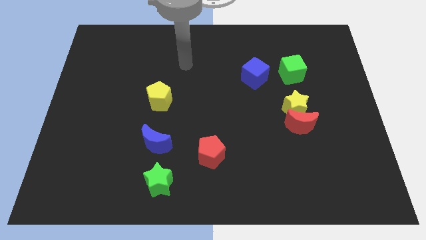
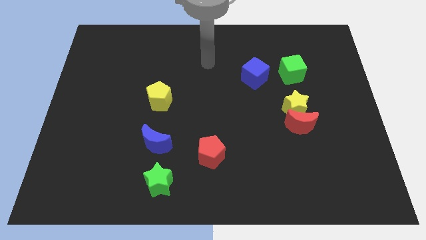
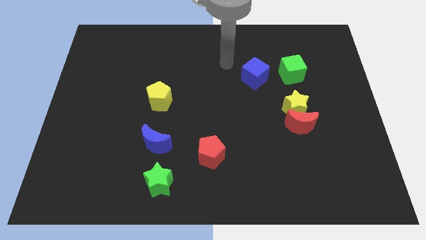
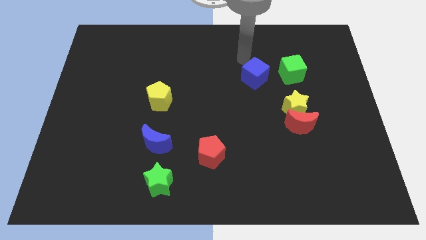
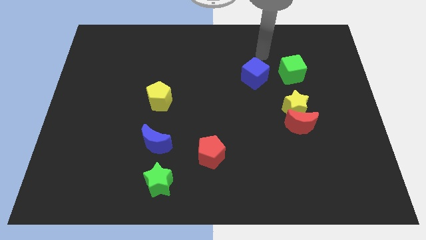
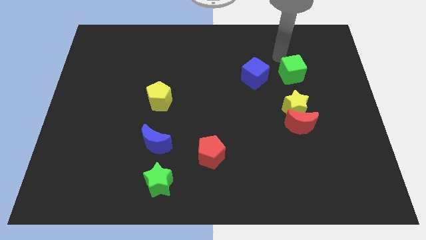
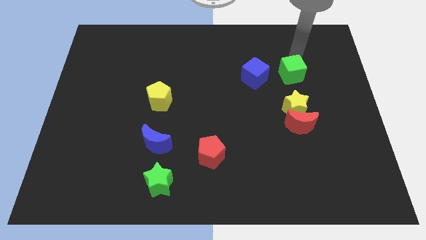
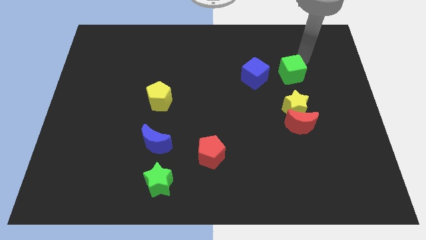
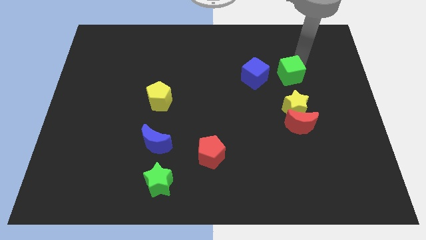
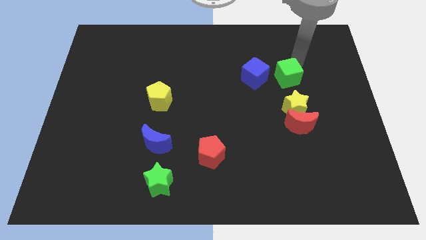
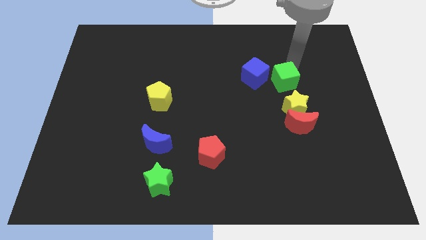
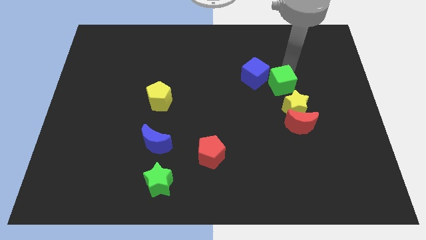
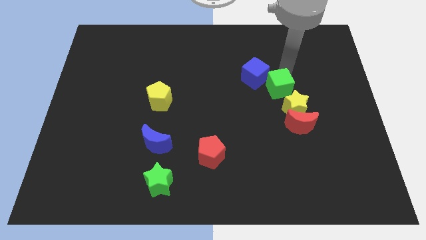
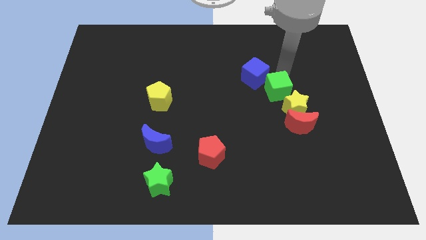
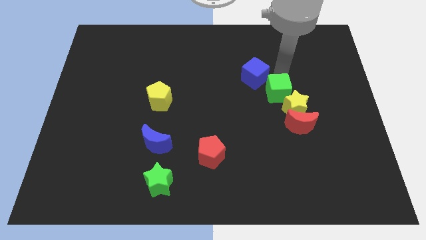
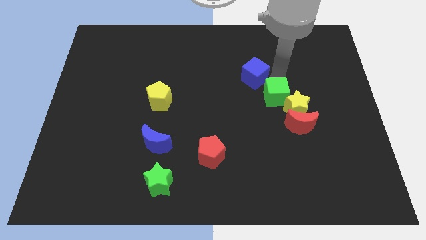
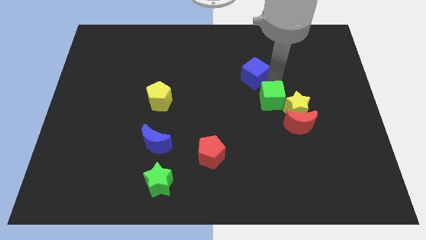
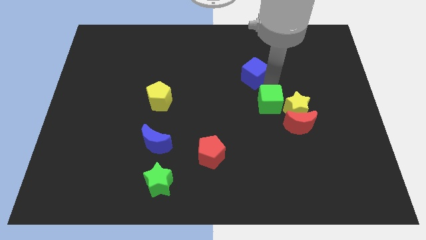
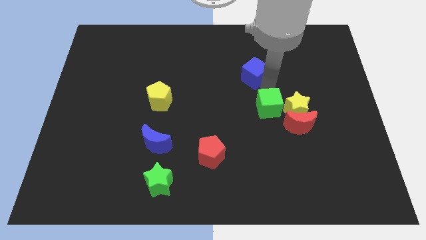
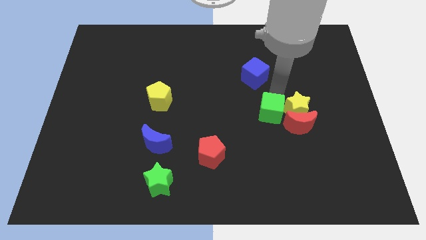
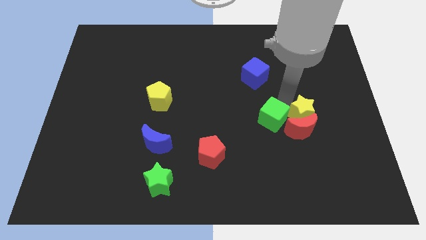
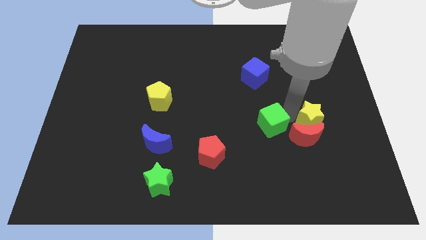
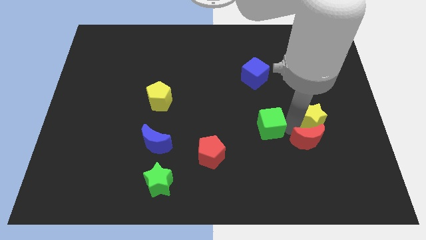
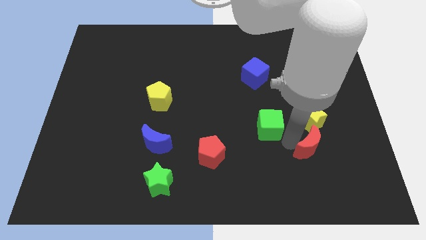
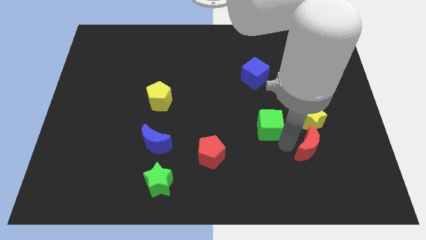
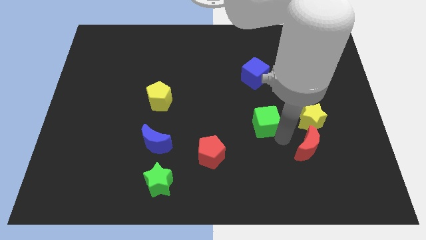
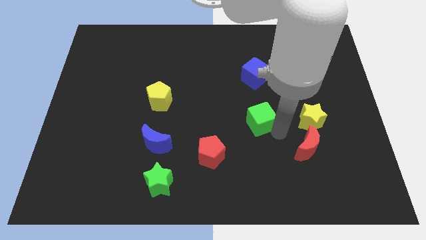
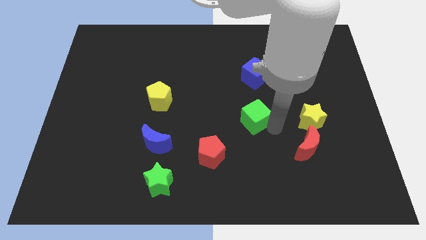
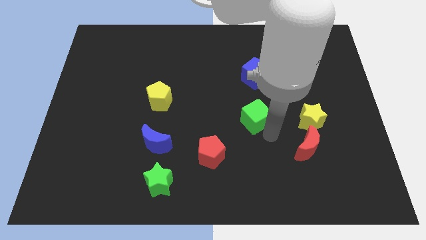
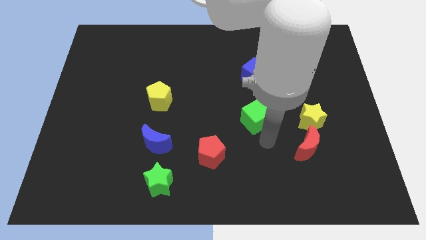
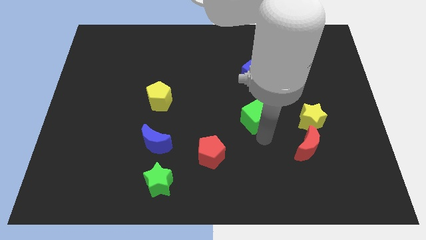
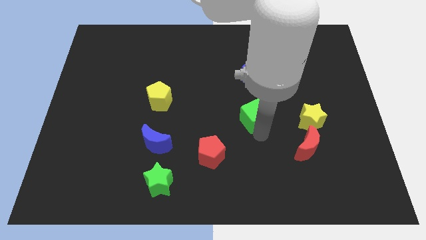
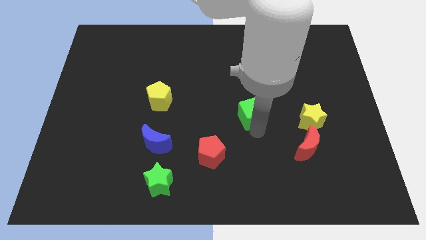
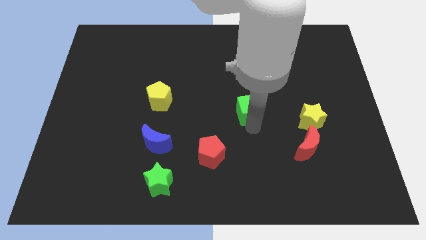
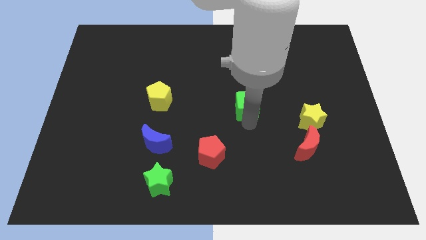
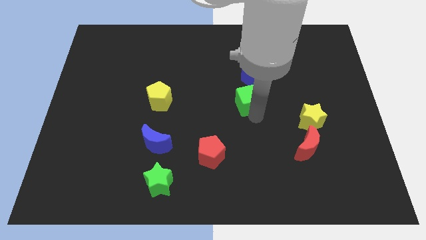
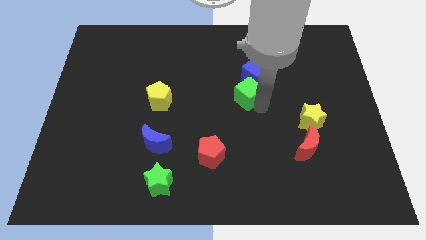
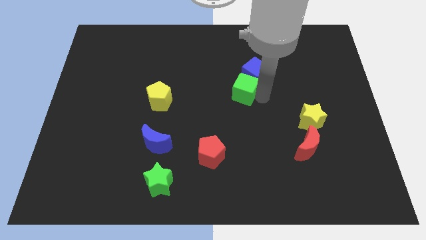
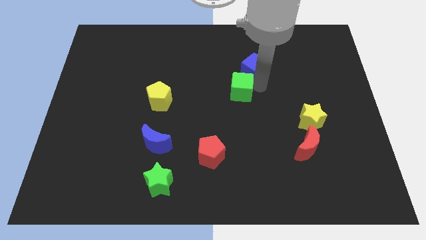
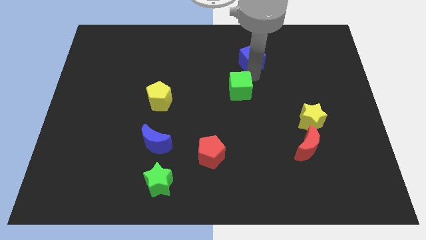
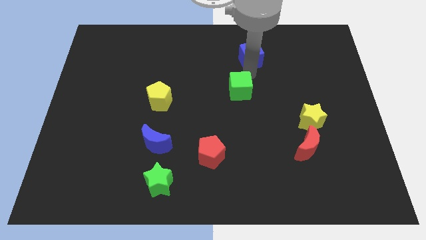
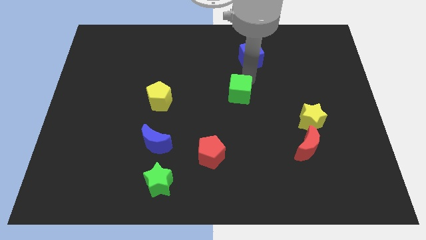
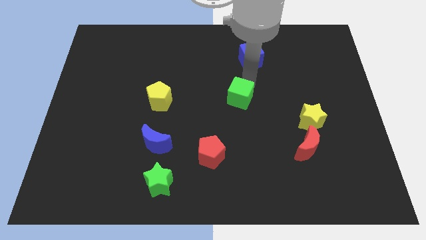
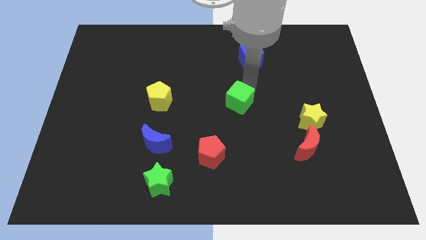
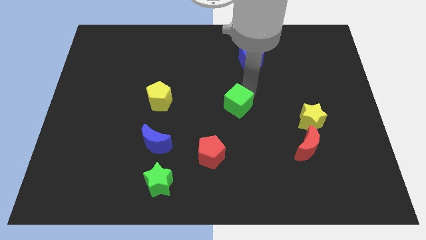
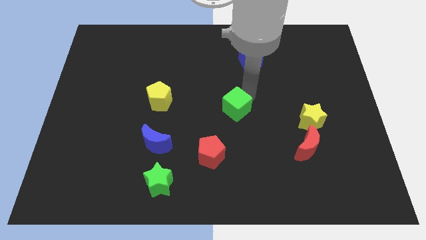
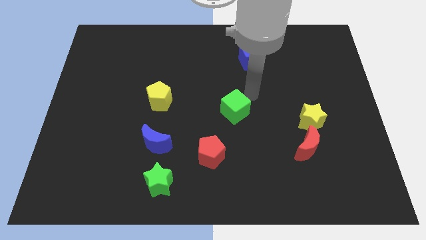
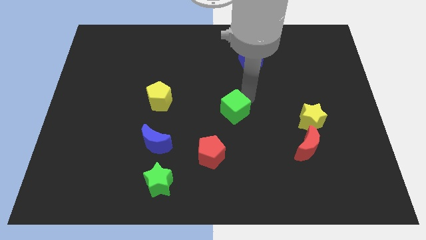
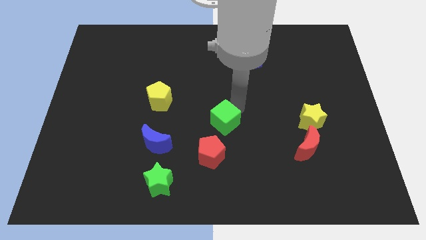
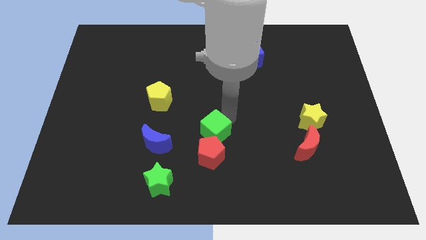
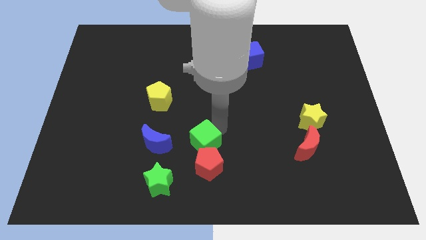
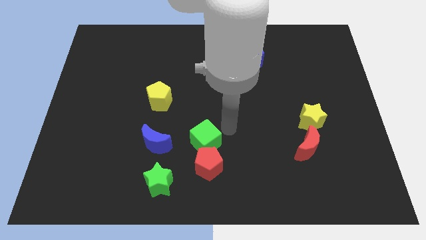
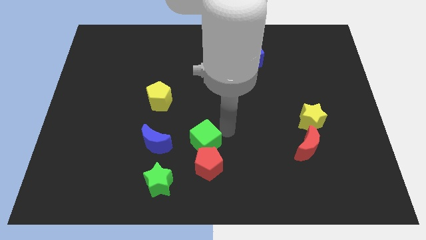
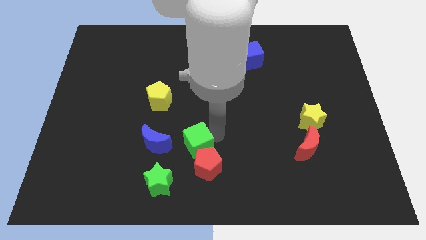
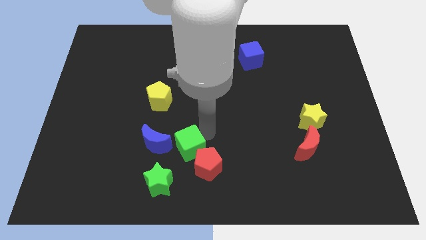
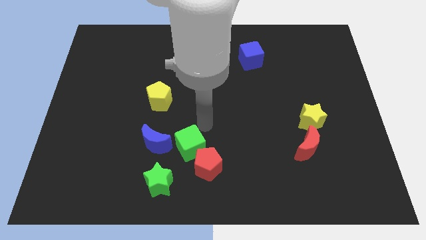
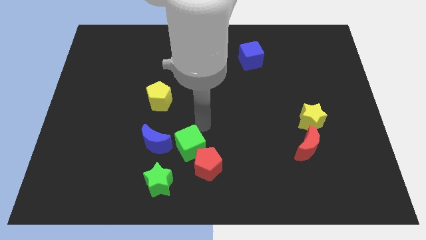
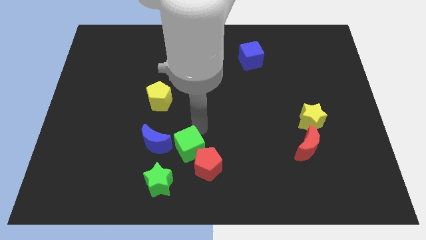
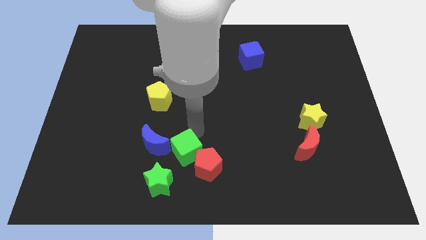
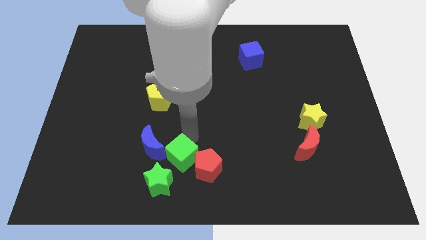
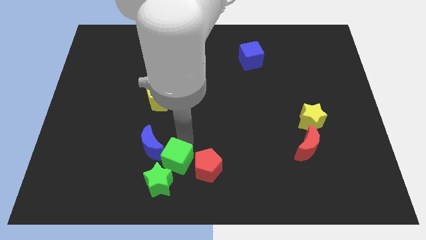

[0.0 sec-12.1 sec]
move the green cube to the green star
